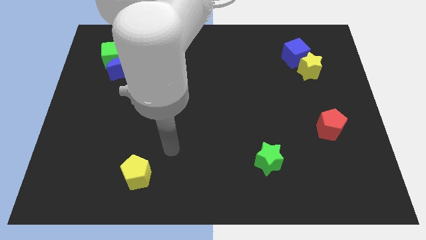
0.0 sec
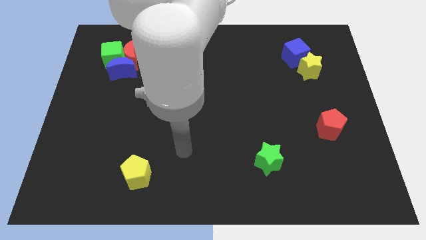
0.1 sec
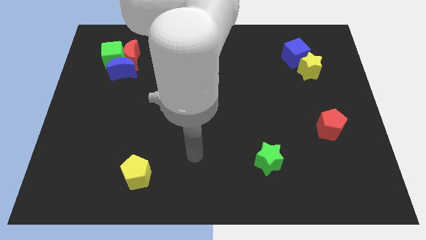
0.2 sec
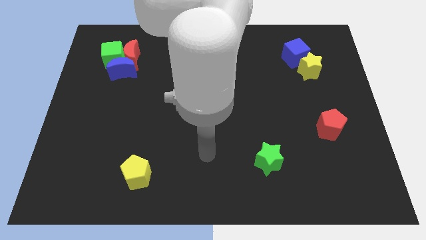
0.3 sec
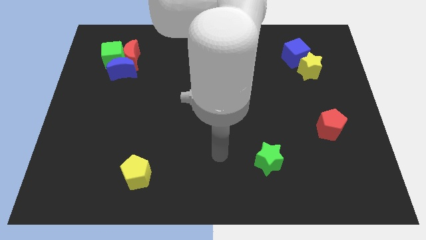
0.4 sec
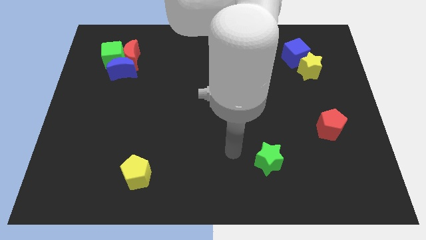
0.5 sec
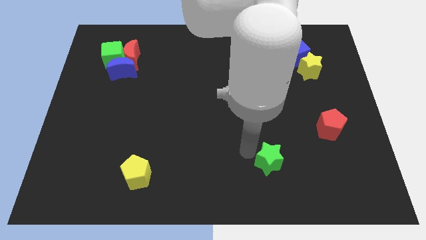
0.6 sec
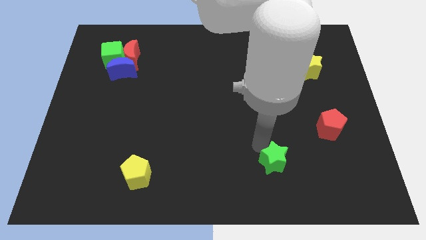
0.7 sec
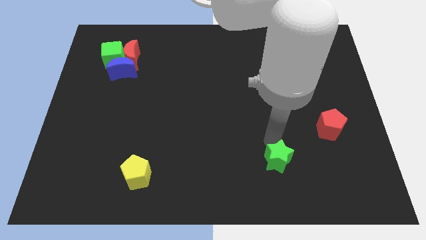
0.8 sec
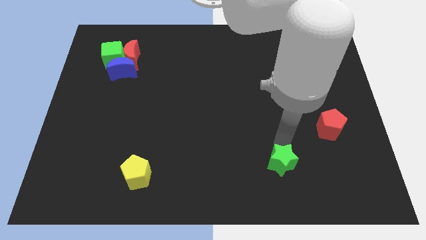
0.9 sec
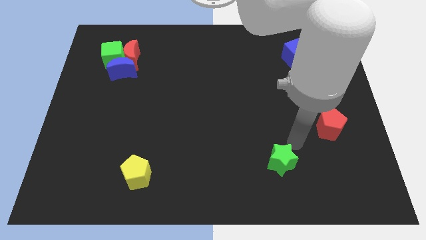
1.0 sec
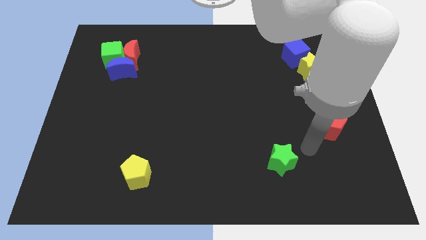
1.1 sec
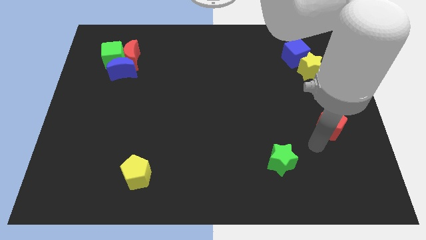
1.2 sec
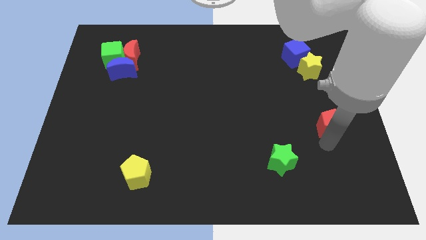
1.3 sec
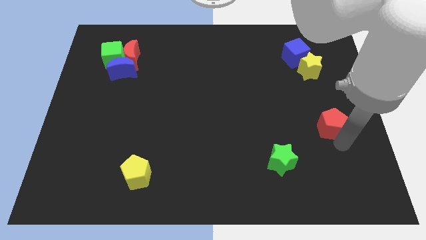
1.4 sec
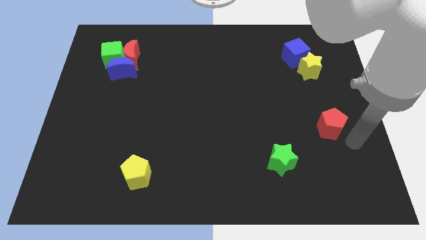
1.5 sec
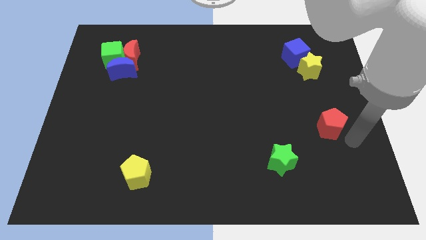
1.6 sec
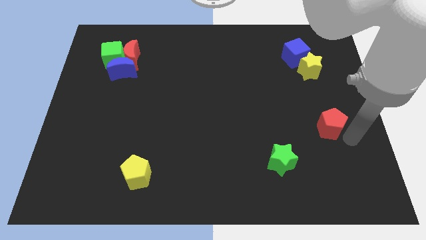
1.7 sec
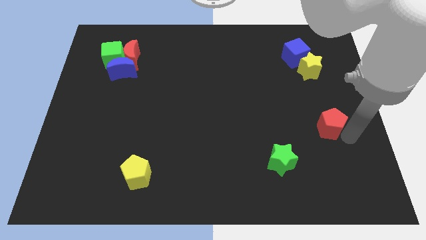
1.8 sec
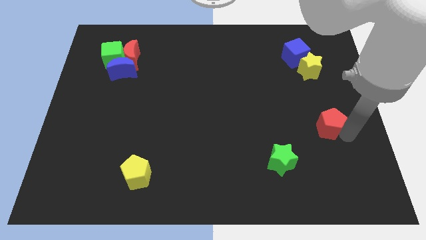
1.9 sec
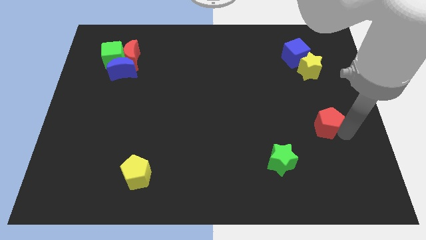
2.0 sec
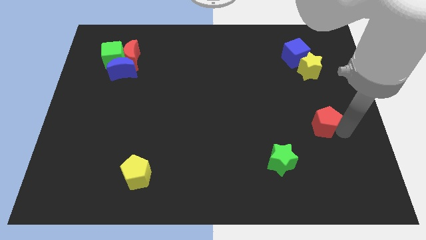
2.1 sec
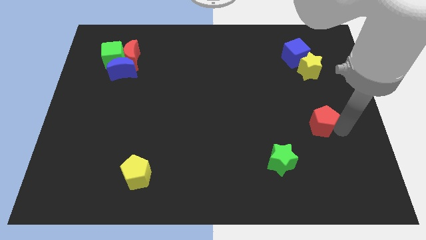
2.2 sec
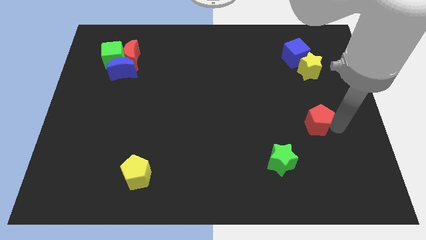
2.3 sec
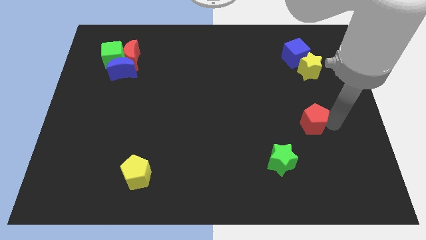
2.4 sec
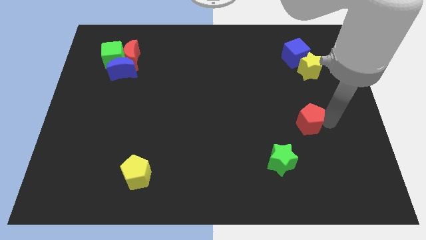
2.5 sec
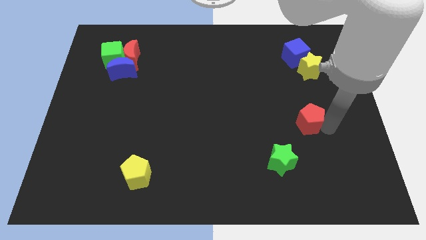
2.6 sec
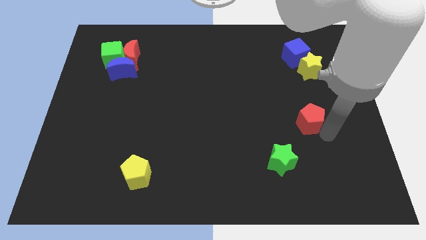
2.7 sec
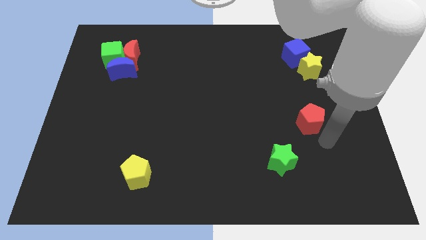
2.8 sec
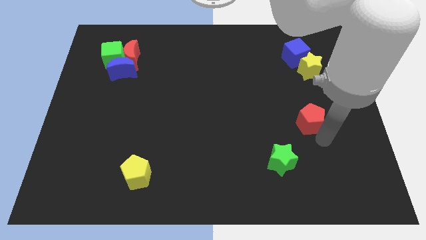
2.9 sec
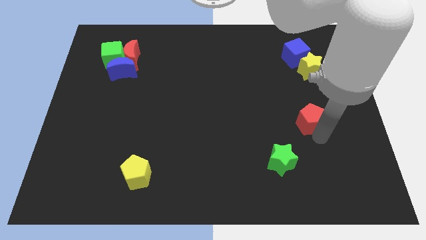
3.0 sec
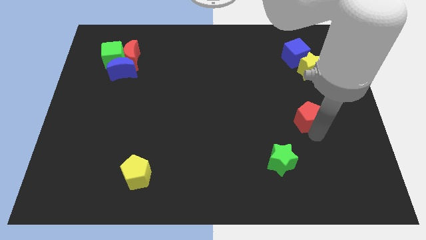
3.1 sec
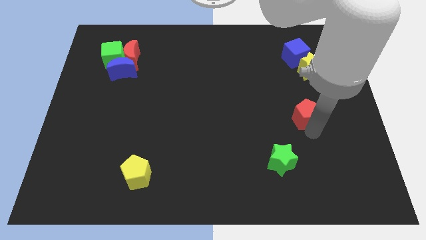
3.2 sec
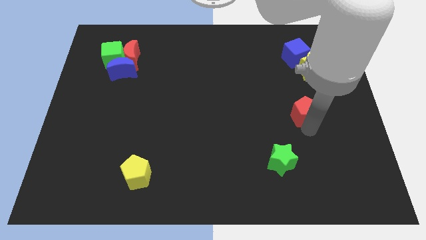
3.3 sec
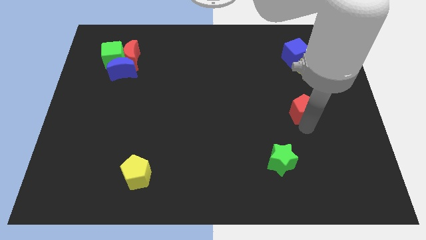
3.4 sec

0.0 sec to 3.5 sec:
slightly move the red pentagon upwards and to the left diagonally

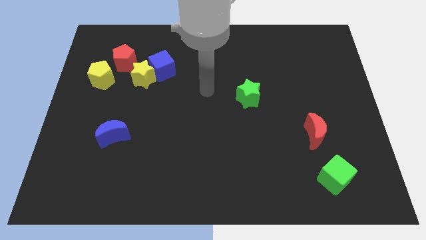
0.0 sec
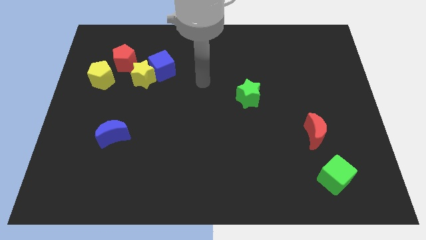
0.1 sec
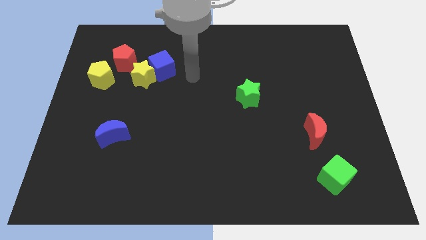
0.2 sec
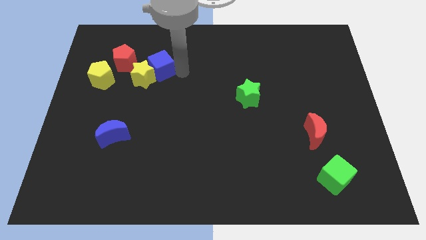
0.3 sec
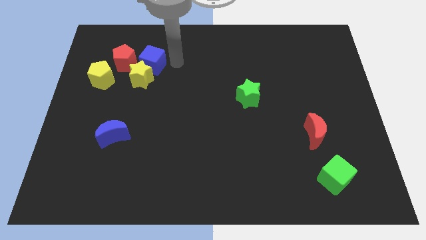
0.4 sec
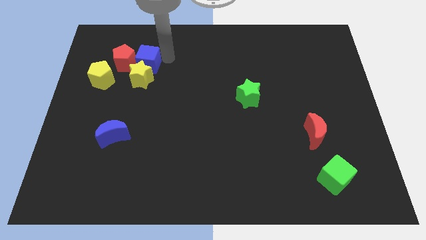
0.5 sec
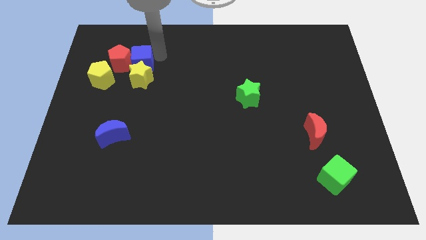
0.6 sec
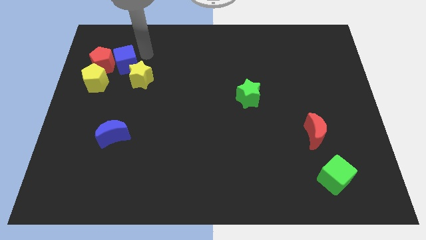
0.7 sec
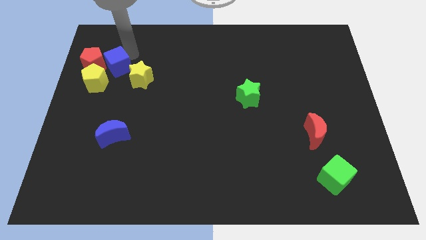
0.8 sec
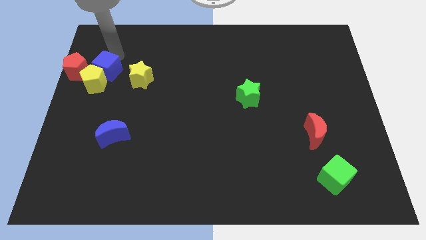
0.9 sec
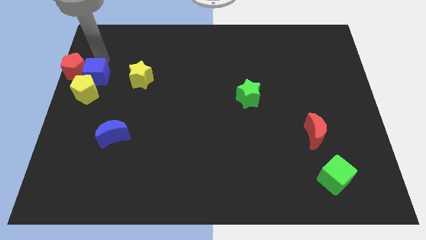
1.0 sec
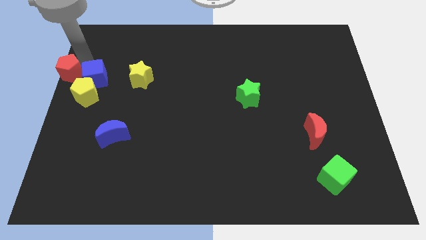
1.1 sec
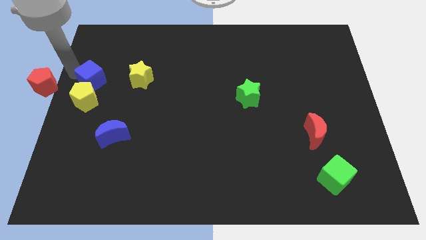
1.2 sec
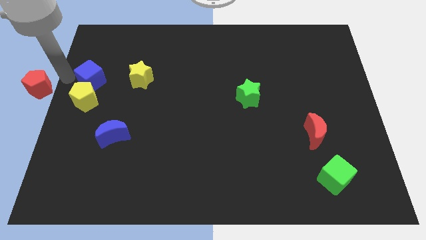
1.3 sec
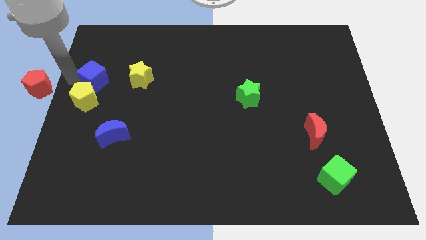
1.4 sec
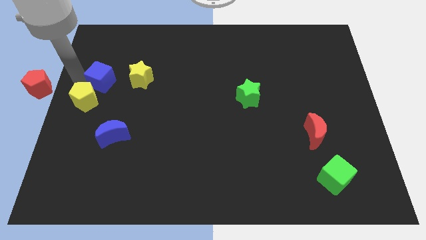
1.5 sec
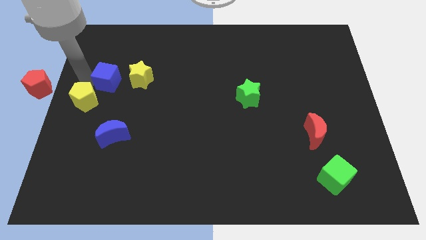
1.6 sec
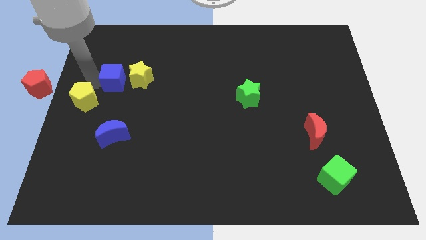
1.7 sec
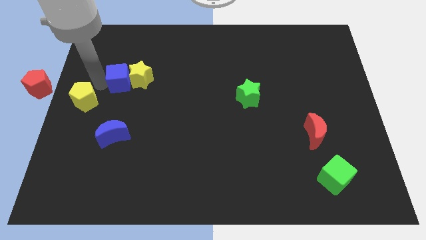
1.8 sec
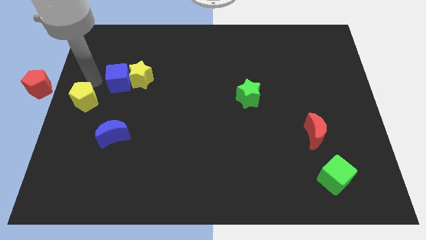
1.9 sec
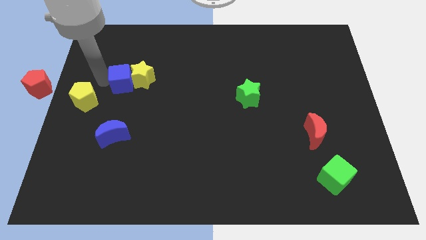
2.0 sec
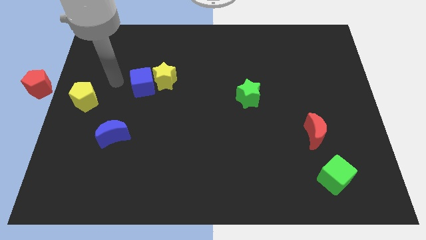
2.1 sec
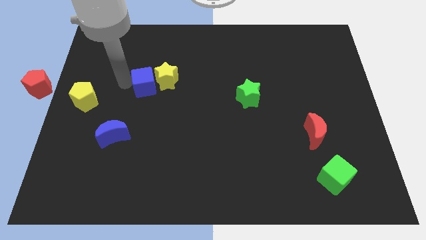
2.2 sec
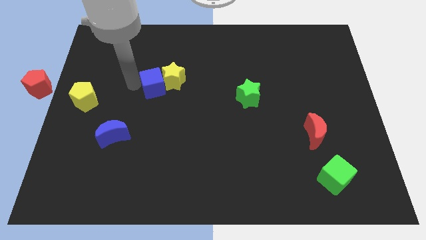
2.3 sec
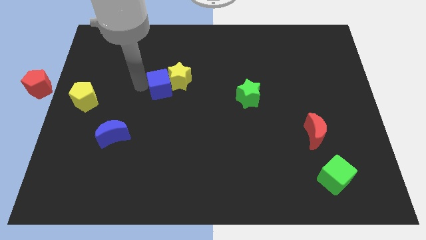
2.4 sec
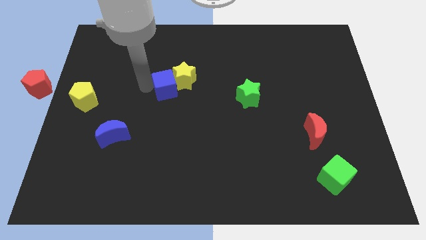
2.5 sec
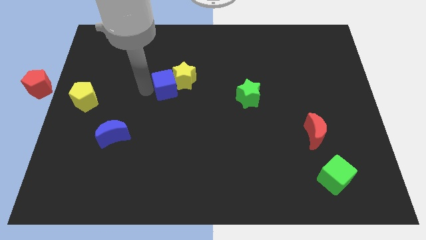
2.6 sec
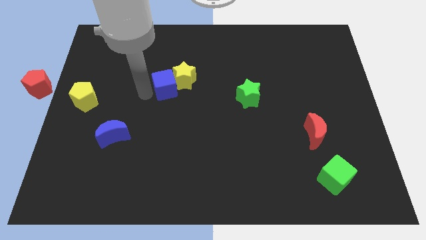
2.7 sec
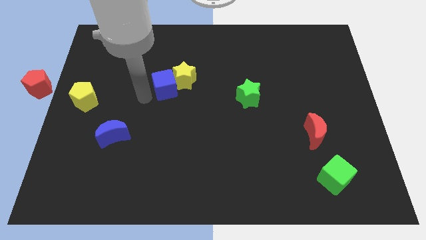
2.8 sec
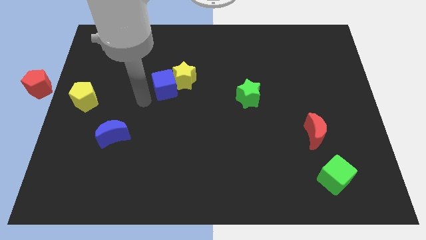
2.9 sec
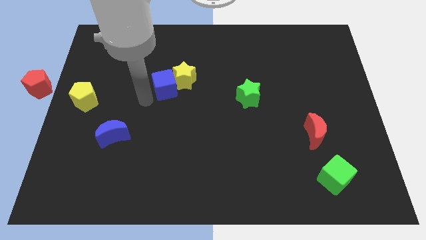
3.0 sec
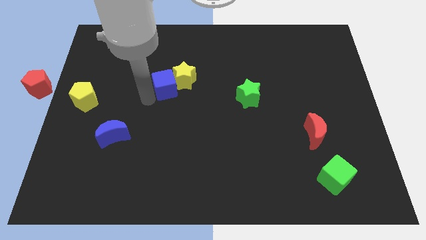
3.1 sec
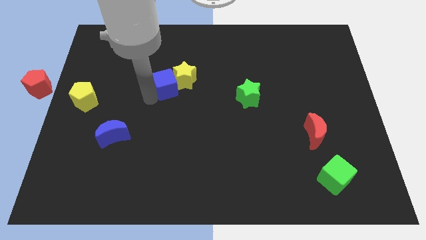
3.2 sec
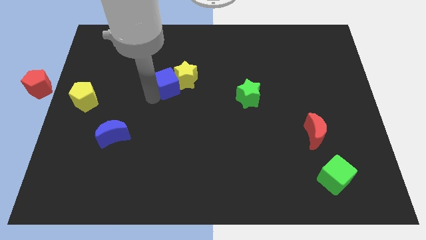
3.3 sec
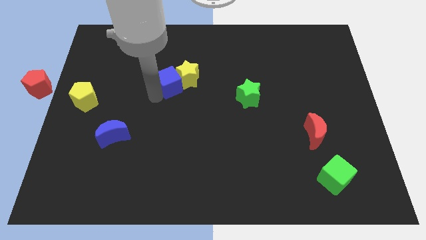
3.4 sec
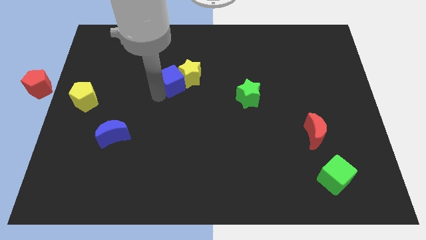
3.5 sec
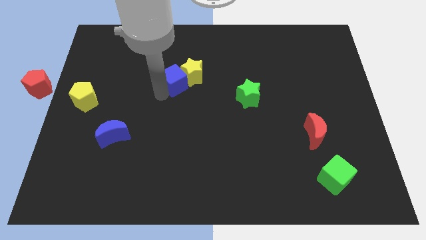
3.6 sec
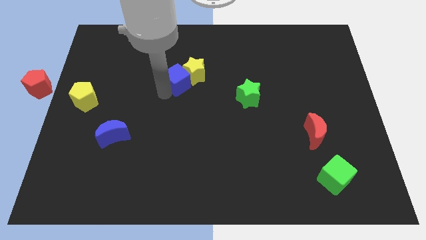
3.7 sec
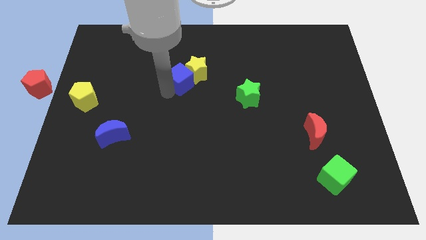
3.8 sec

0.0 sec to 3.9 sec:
push the blue cube diagonally downwards and right somewhat

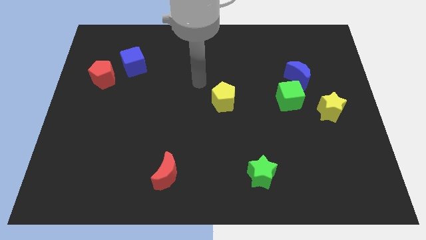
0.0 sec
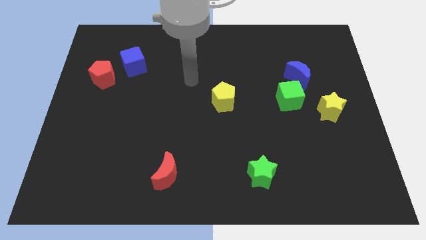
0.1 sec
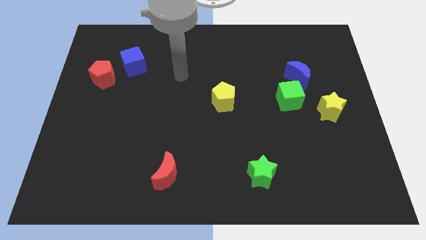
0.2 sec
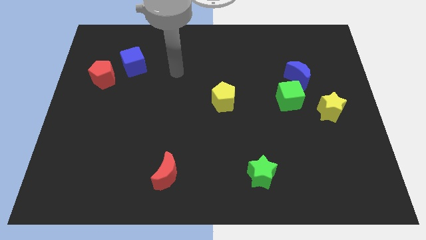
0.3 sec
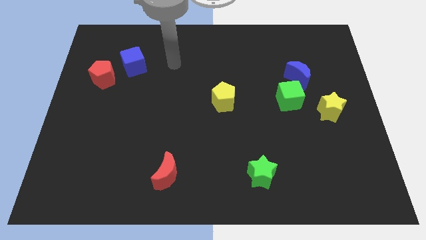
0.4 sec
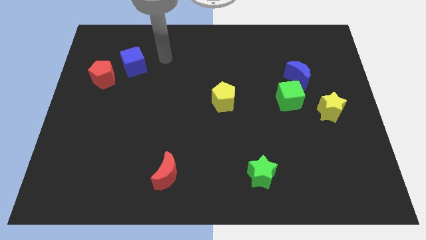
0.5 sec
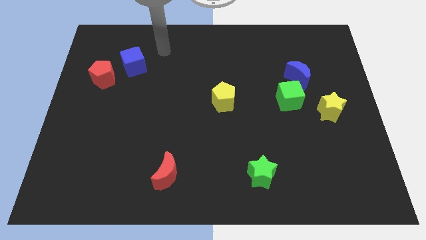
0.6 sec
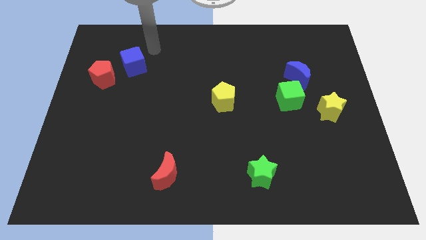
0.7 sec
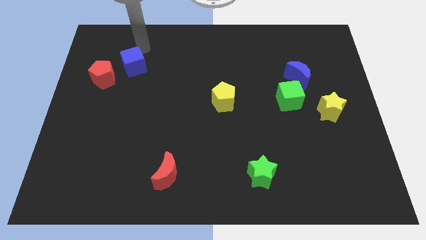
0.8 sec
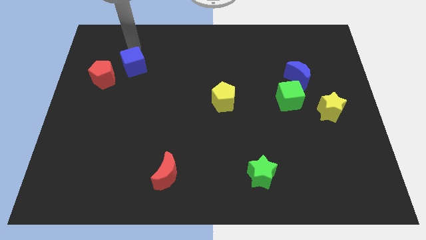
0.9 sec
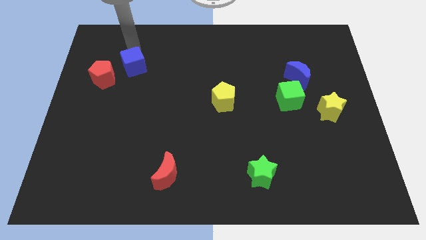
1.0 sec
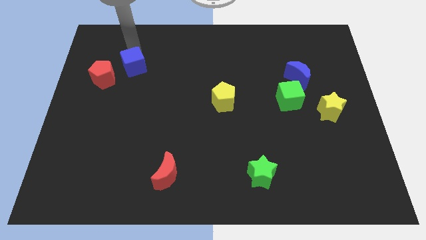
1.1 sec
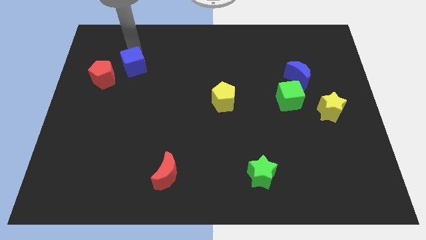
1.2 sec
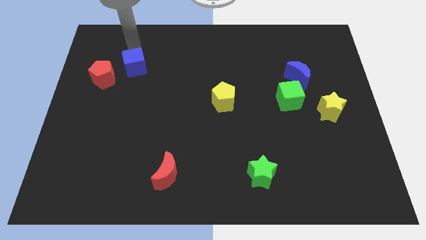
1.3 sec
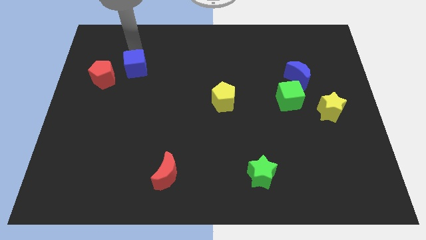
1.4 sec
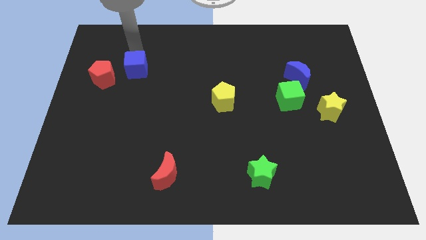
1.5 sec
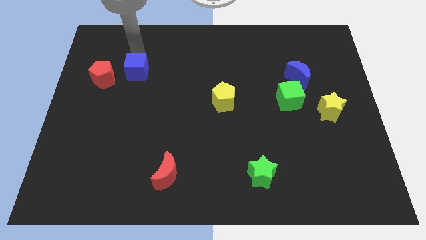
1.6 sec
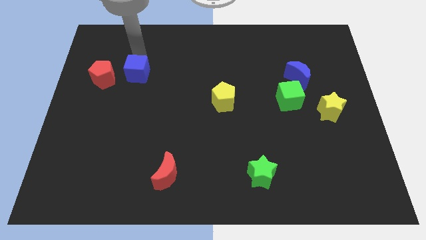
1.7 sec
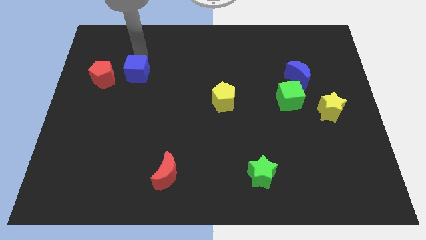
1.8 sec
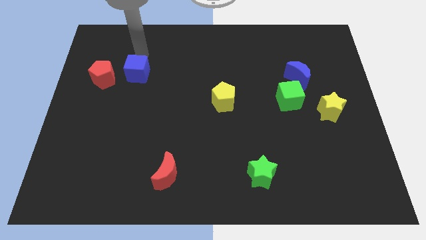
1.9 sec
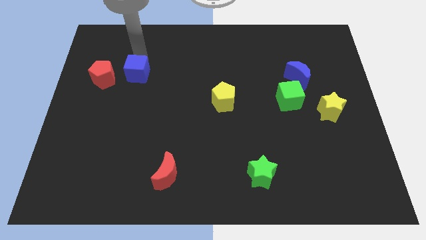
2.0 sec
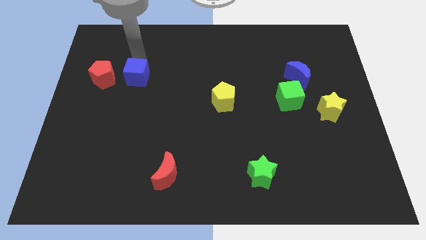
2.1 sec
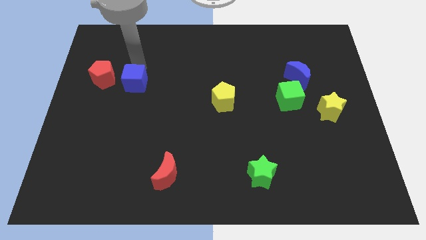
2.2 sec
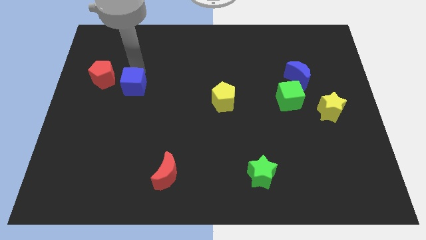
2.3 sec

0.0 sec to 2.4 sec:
slide the blue cube a little downwards
